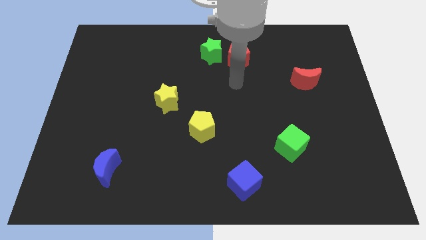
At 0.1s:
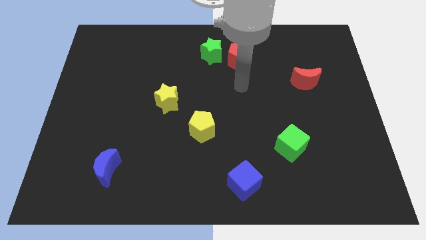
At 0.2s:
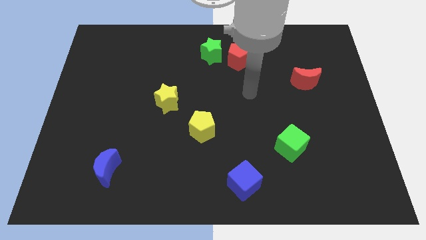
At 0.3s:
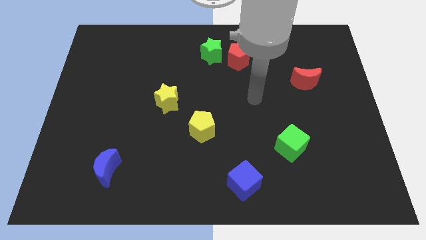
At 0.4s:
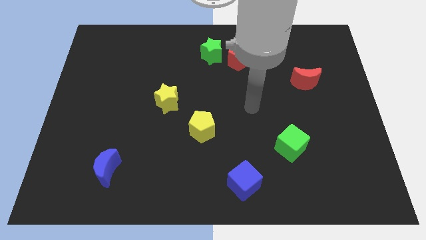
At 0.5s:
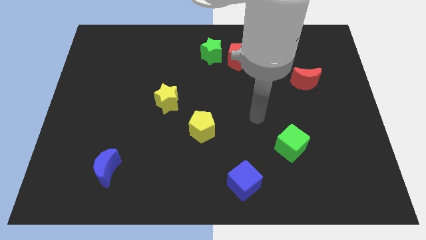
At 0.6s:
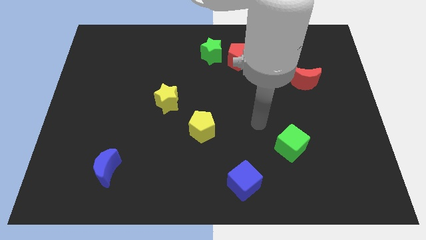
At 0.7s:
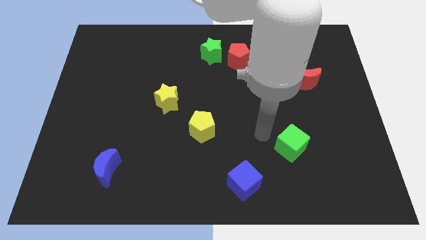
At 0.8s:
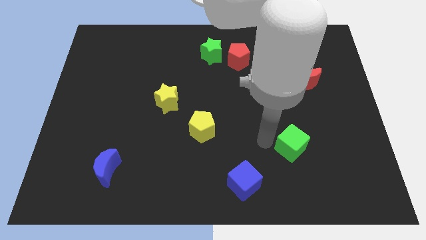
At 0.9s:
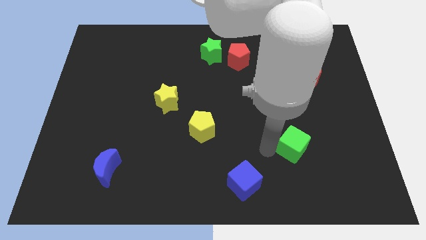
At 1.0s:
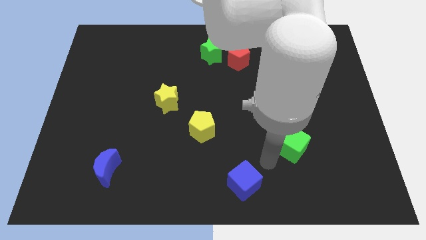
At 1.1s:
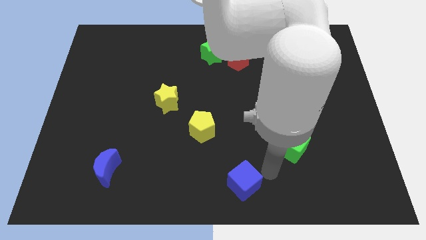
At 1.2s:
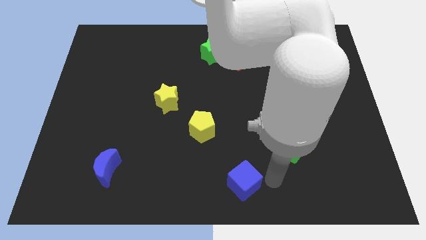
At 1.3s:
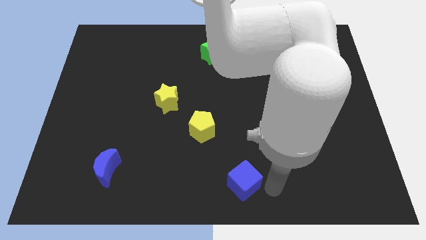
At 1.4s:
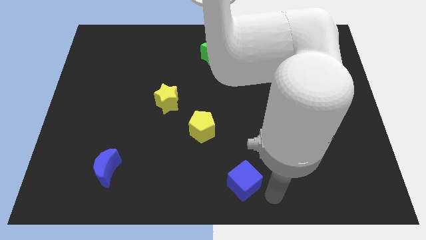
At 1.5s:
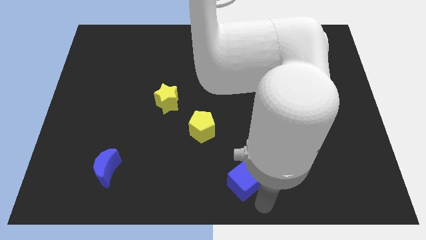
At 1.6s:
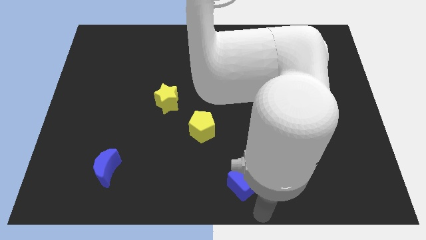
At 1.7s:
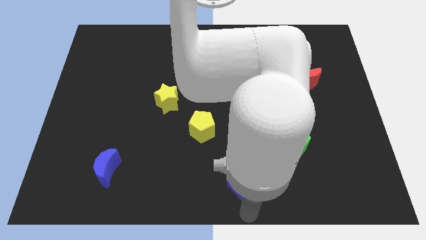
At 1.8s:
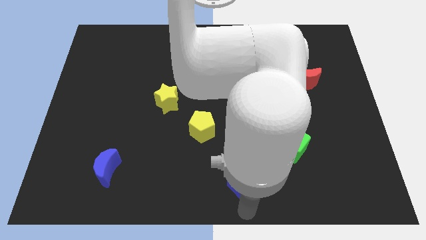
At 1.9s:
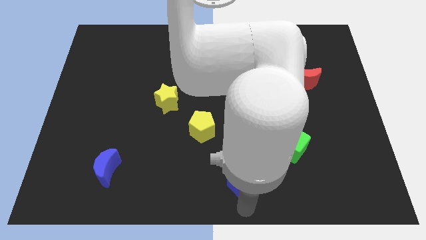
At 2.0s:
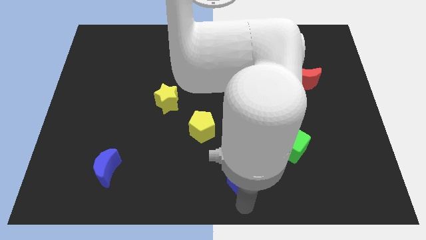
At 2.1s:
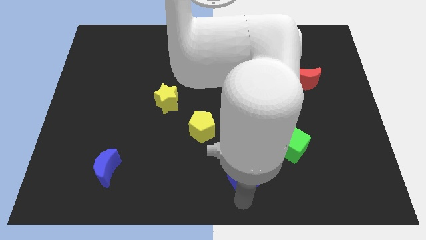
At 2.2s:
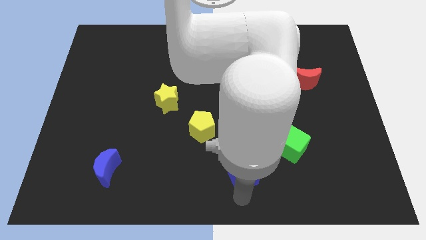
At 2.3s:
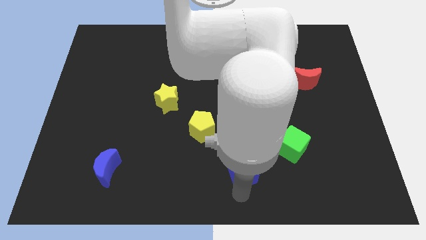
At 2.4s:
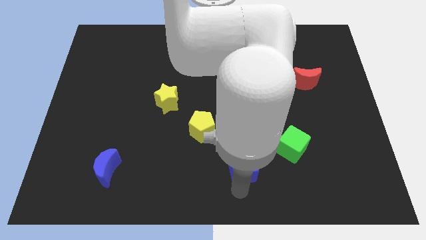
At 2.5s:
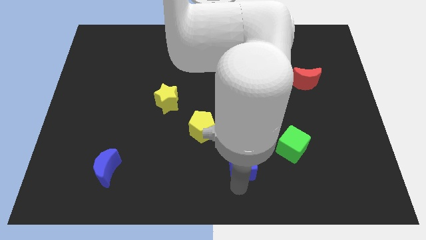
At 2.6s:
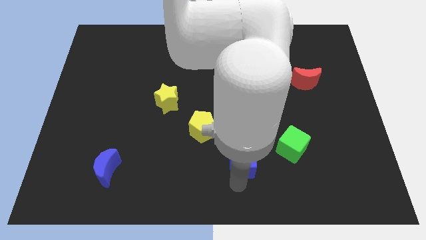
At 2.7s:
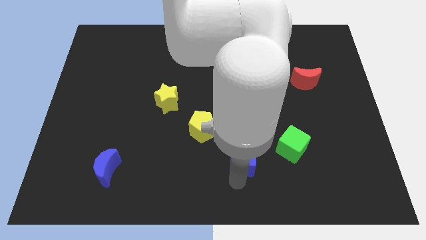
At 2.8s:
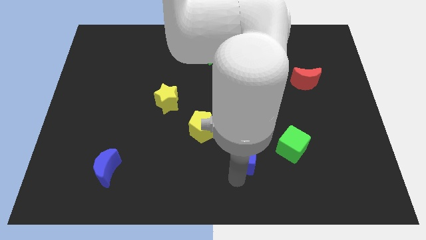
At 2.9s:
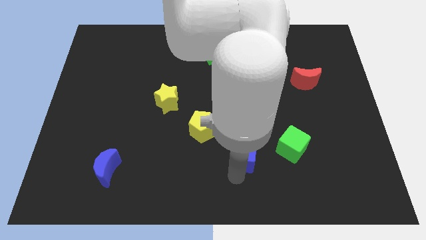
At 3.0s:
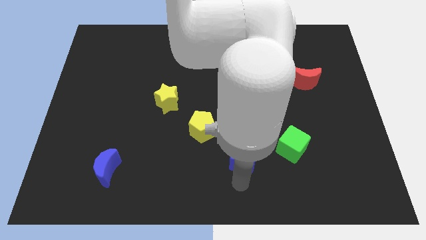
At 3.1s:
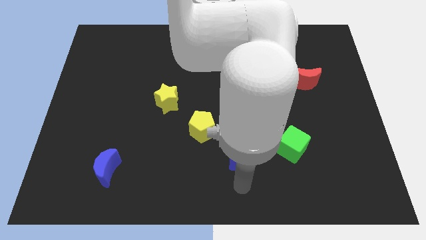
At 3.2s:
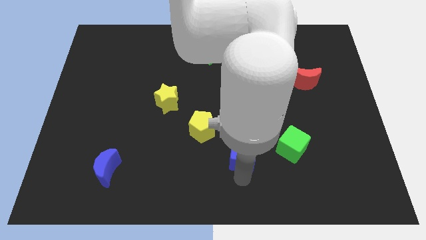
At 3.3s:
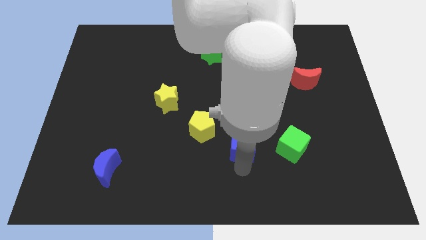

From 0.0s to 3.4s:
push the blue cube up a little

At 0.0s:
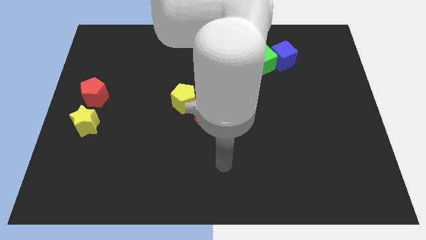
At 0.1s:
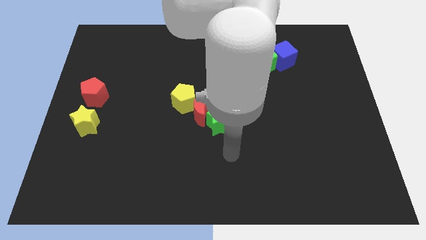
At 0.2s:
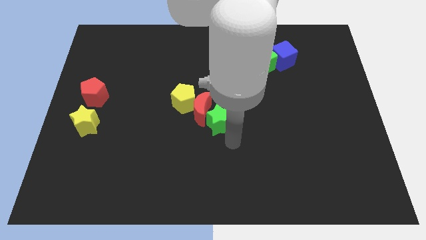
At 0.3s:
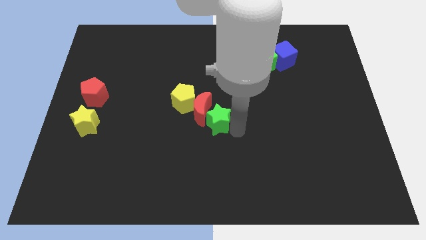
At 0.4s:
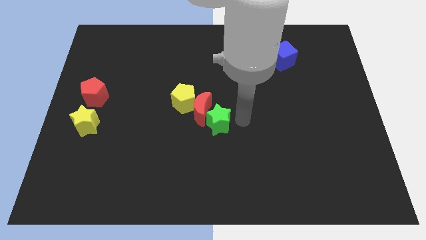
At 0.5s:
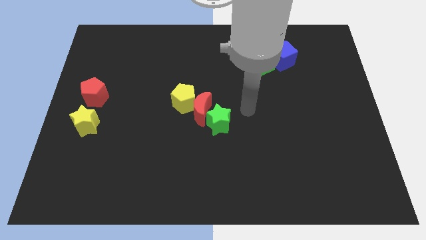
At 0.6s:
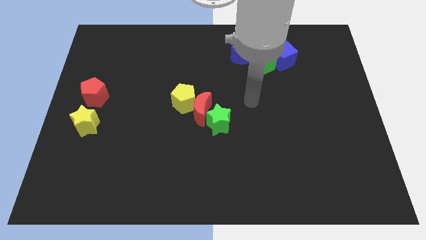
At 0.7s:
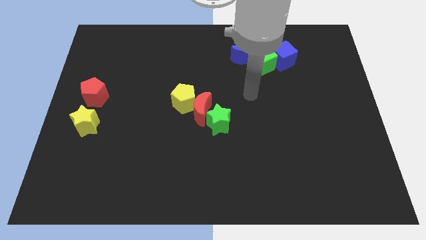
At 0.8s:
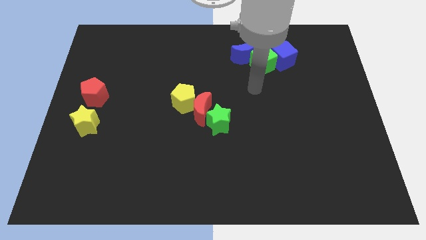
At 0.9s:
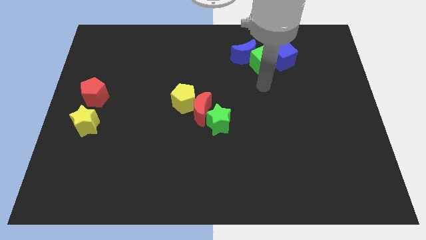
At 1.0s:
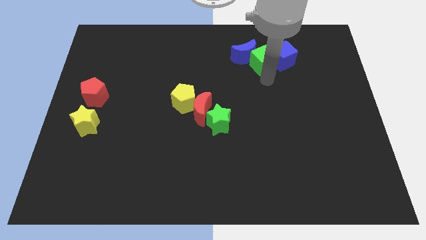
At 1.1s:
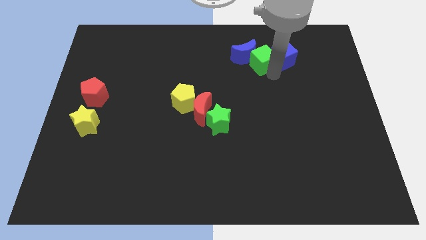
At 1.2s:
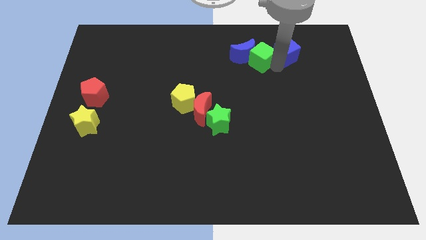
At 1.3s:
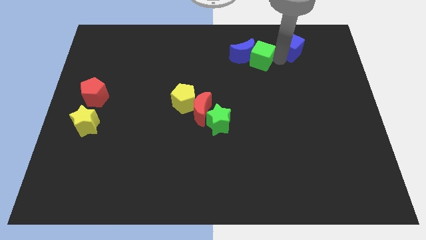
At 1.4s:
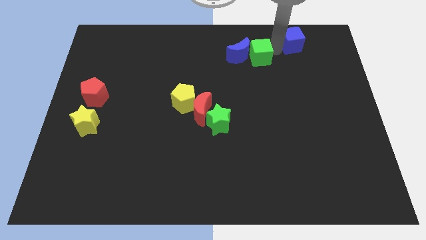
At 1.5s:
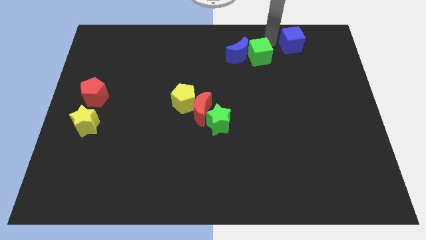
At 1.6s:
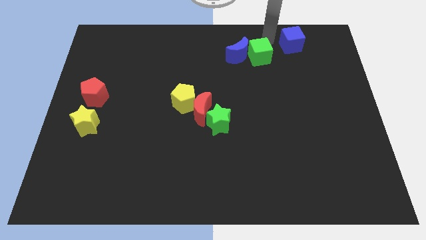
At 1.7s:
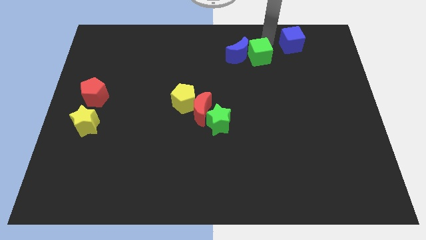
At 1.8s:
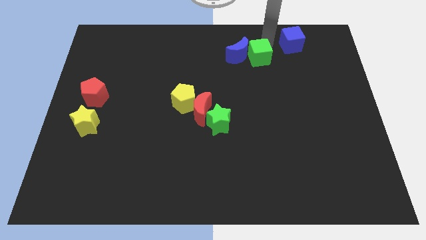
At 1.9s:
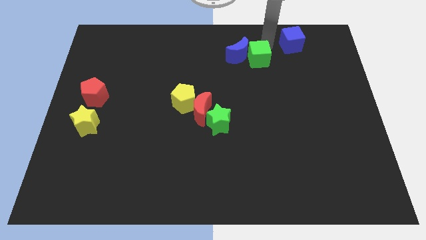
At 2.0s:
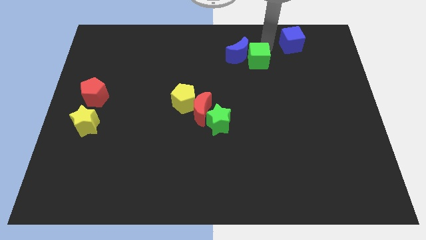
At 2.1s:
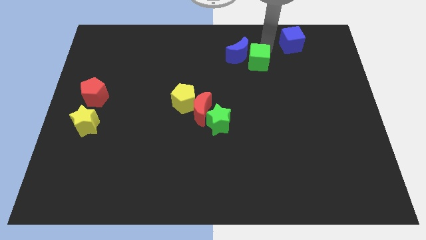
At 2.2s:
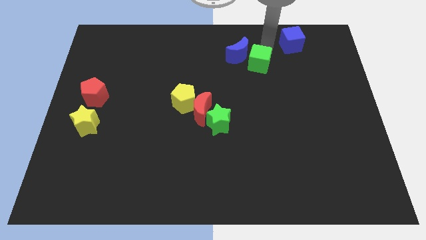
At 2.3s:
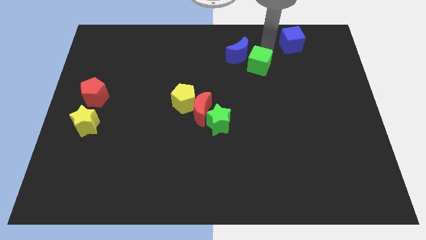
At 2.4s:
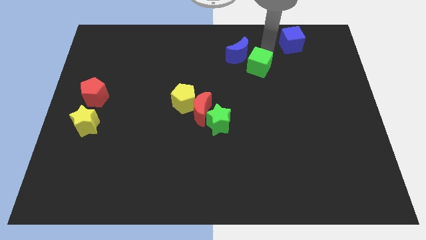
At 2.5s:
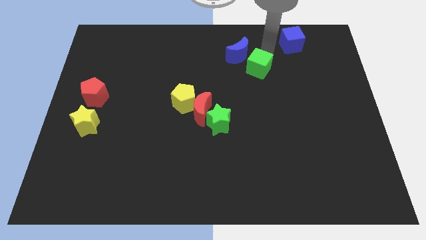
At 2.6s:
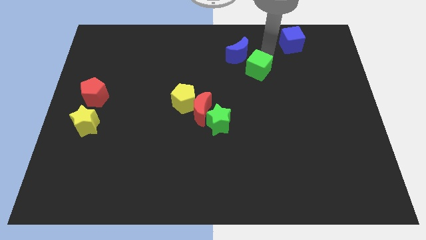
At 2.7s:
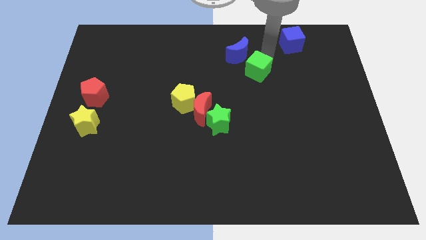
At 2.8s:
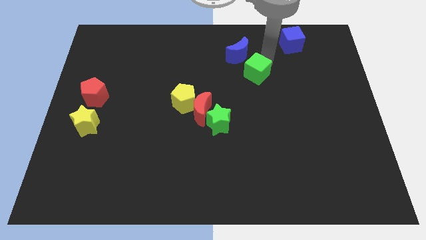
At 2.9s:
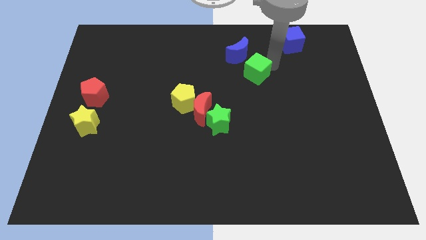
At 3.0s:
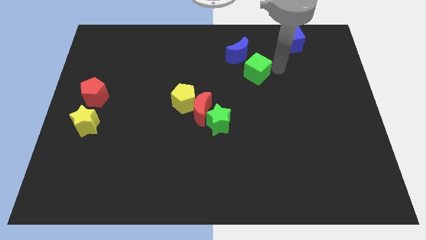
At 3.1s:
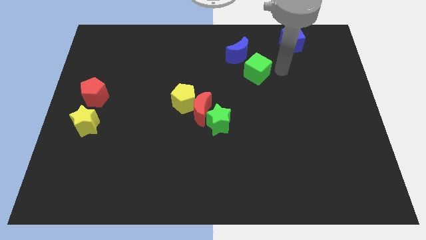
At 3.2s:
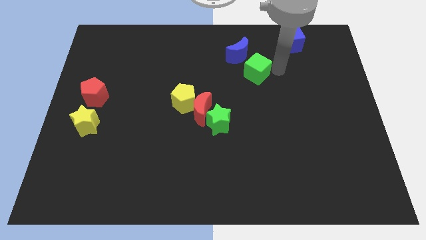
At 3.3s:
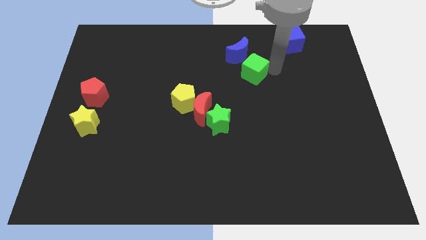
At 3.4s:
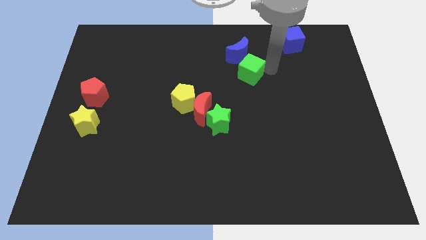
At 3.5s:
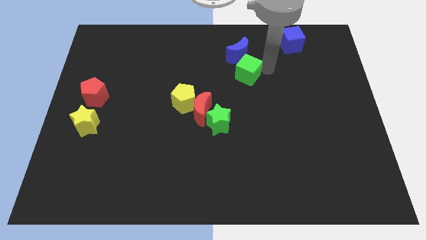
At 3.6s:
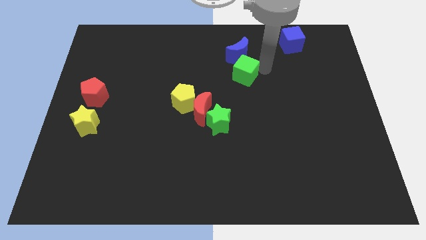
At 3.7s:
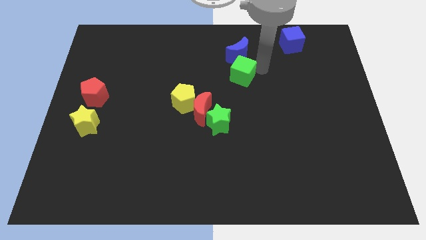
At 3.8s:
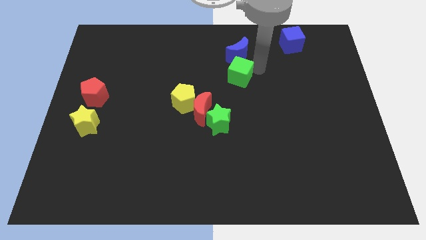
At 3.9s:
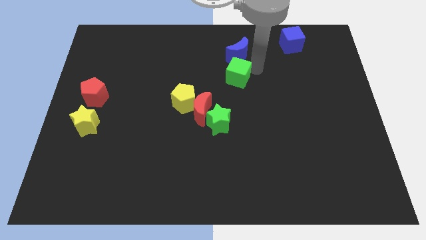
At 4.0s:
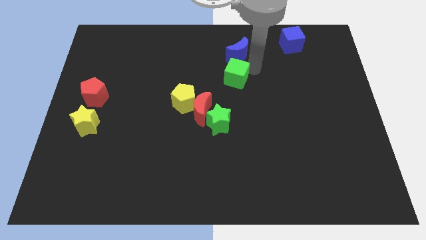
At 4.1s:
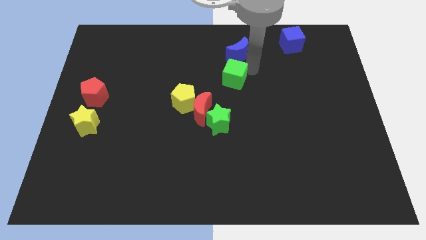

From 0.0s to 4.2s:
slide the green cube left slightly

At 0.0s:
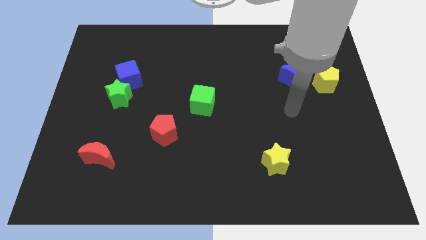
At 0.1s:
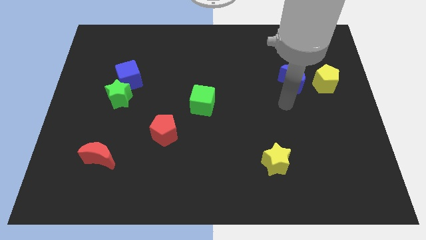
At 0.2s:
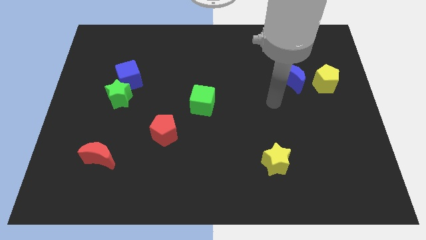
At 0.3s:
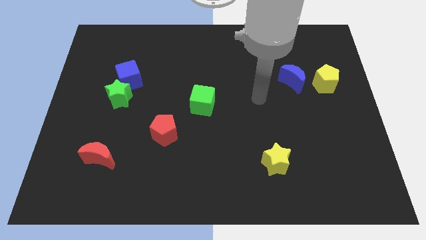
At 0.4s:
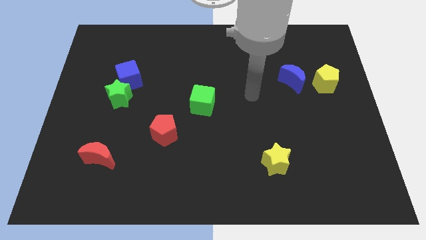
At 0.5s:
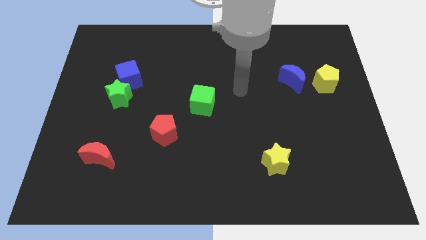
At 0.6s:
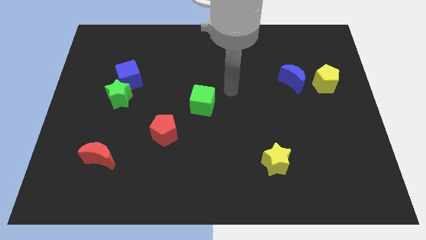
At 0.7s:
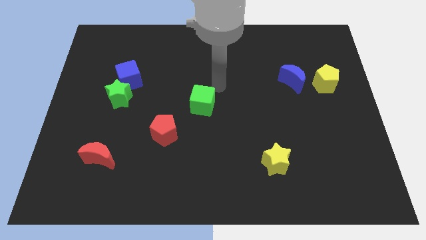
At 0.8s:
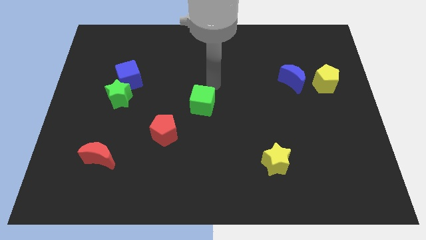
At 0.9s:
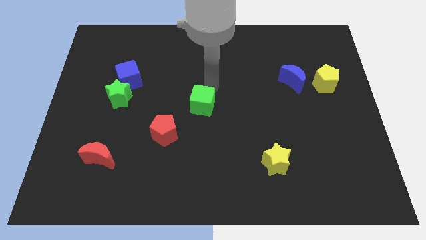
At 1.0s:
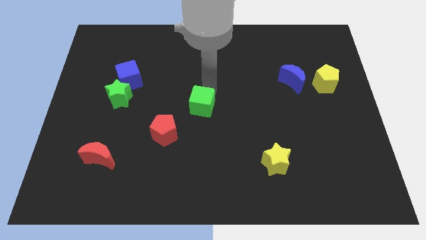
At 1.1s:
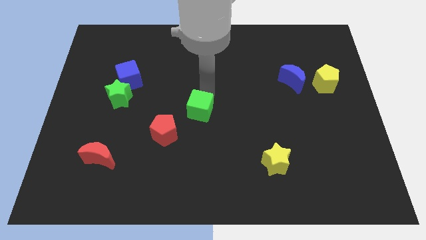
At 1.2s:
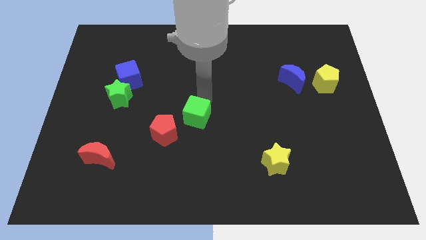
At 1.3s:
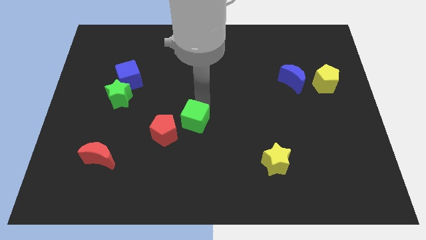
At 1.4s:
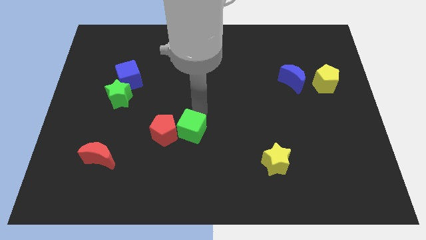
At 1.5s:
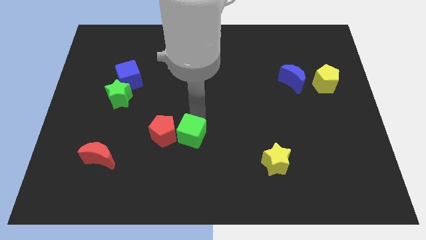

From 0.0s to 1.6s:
push the green cube slightly down and to the left
